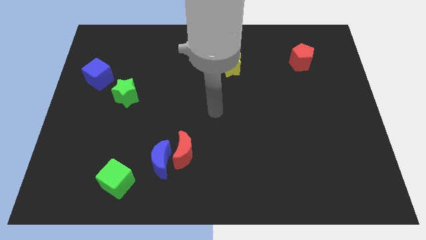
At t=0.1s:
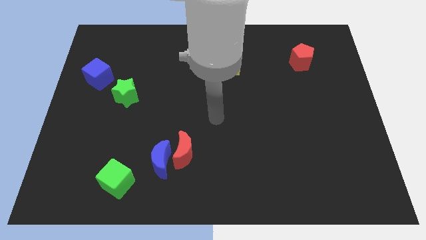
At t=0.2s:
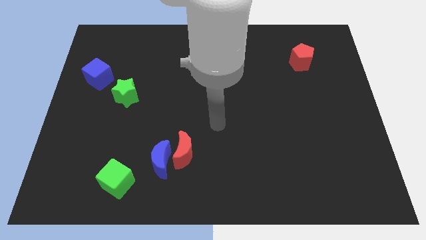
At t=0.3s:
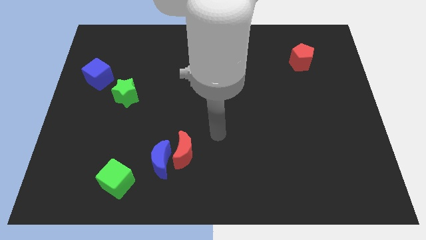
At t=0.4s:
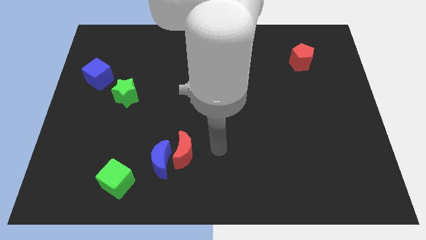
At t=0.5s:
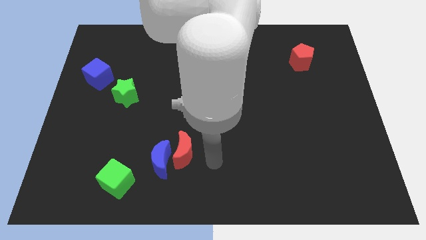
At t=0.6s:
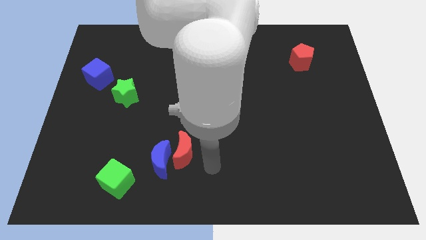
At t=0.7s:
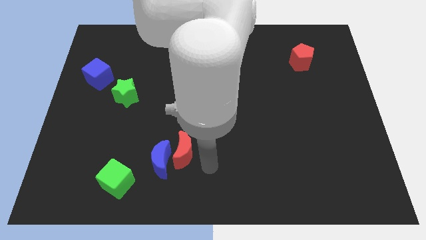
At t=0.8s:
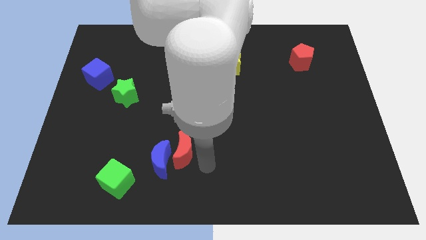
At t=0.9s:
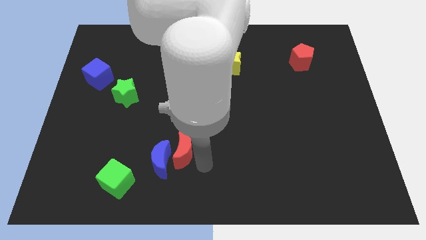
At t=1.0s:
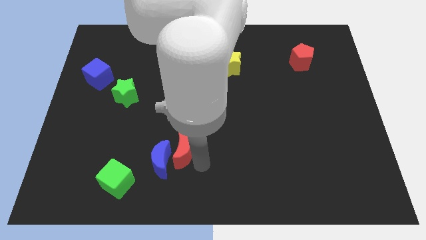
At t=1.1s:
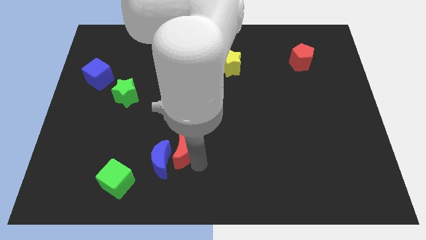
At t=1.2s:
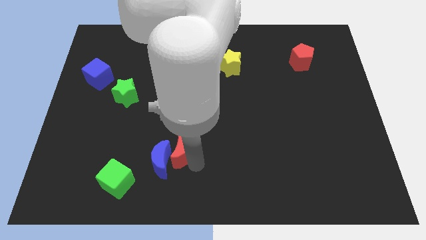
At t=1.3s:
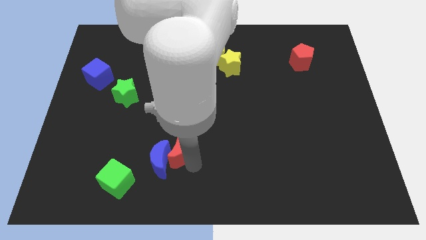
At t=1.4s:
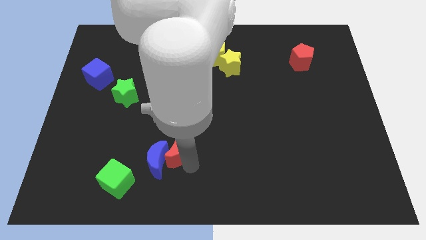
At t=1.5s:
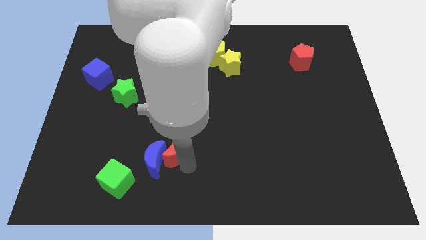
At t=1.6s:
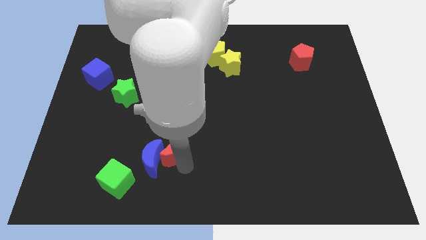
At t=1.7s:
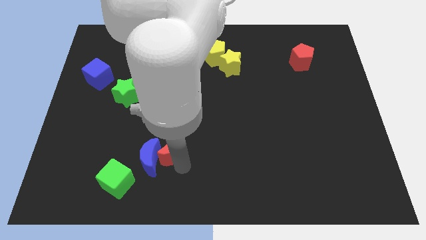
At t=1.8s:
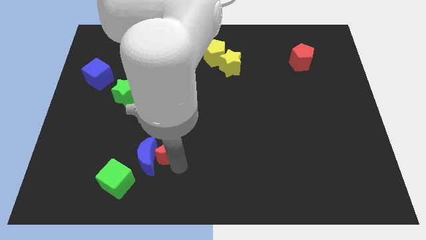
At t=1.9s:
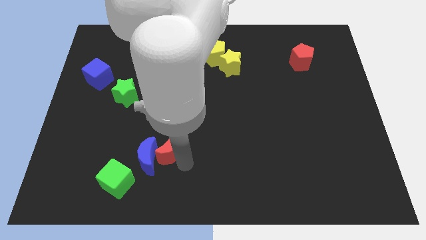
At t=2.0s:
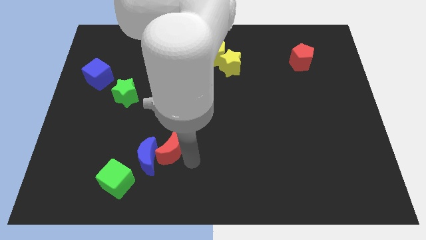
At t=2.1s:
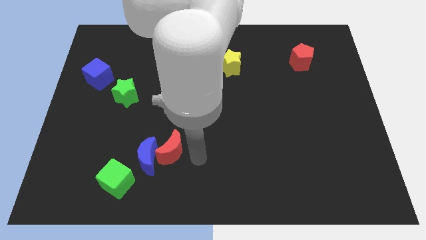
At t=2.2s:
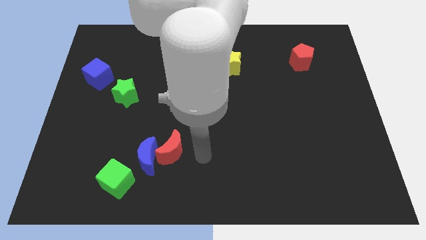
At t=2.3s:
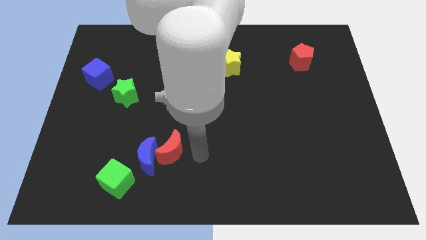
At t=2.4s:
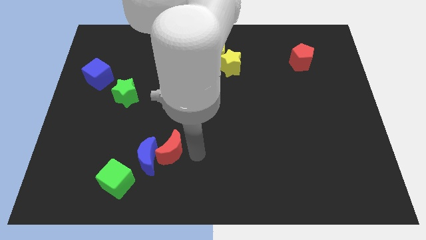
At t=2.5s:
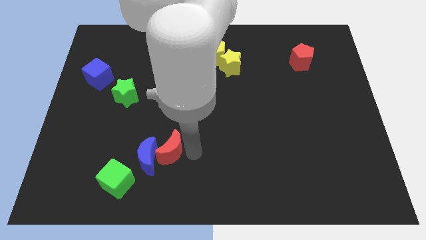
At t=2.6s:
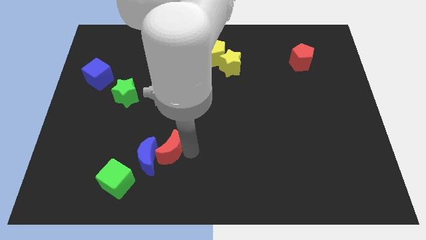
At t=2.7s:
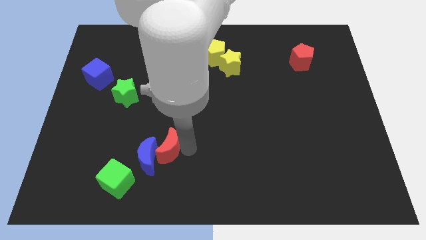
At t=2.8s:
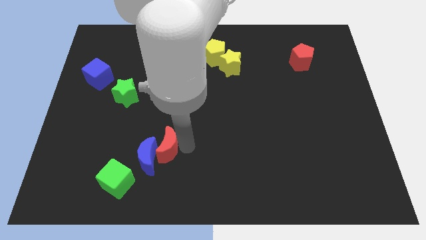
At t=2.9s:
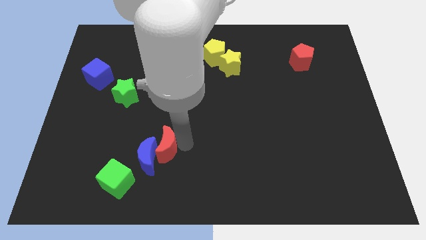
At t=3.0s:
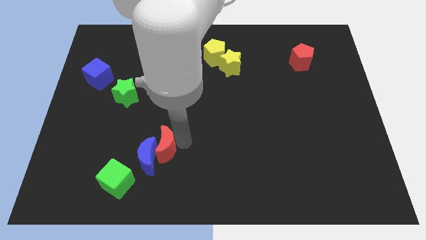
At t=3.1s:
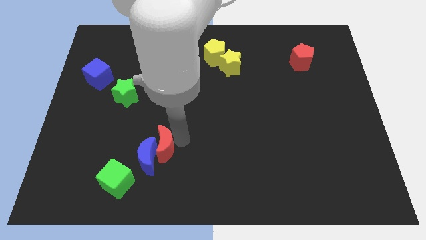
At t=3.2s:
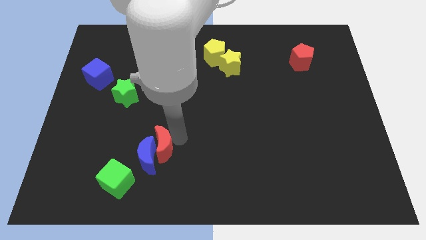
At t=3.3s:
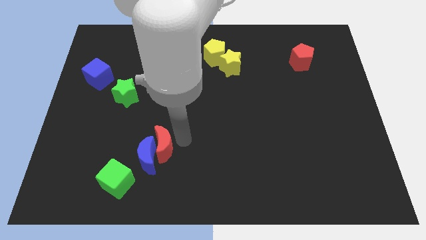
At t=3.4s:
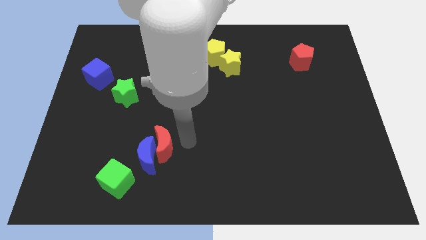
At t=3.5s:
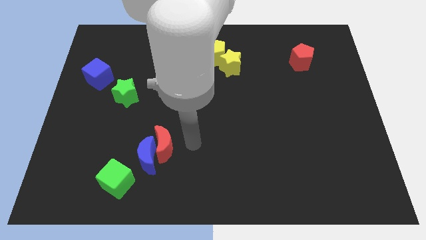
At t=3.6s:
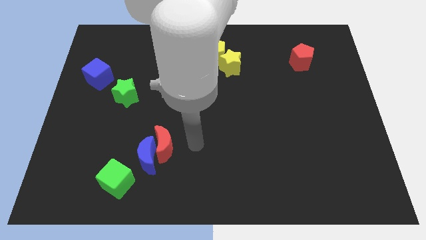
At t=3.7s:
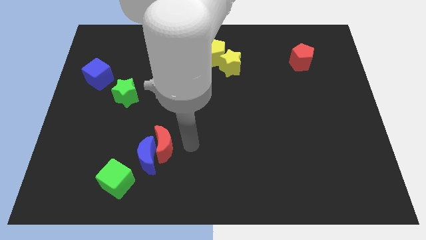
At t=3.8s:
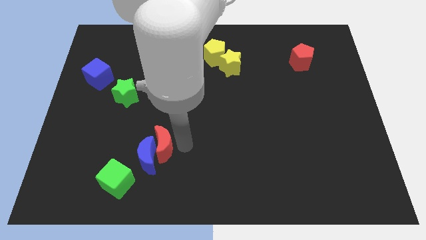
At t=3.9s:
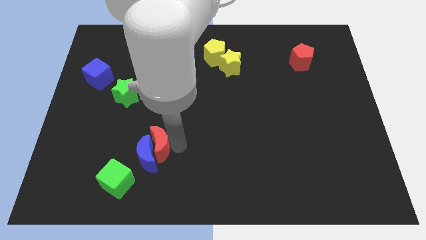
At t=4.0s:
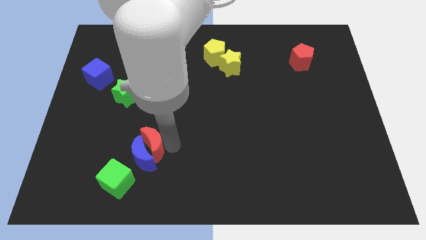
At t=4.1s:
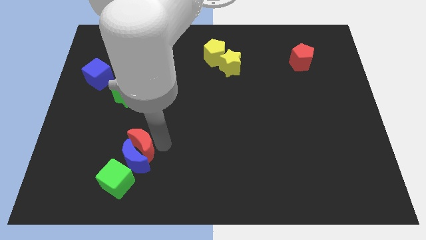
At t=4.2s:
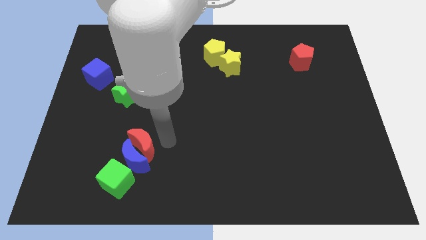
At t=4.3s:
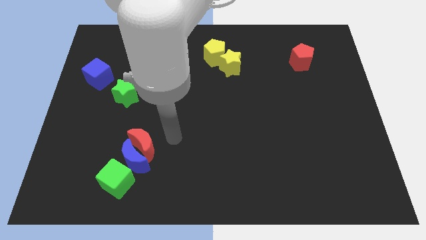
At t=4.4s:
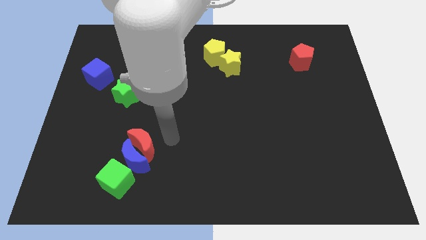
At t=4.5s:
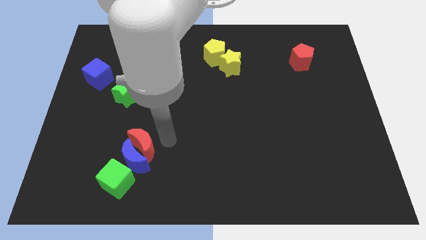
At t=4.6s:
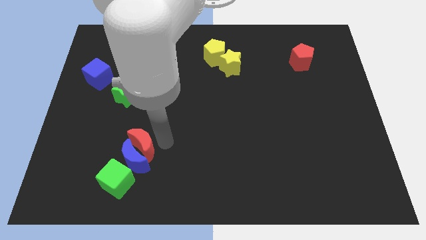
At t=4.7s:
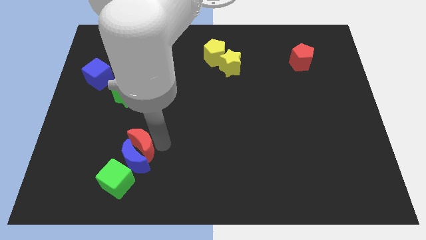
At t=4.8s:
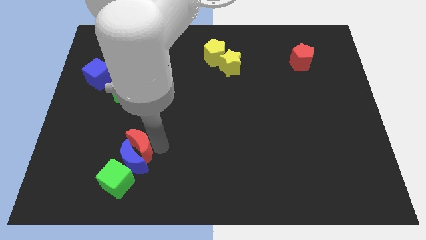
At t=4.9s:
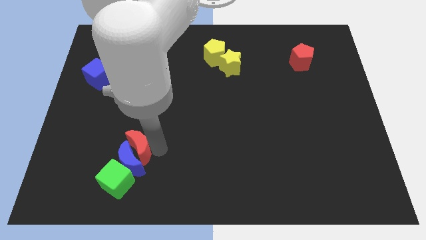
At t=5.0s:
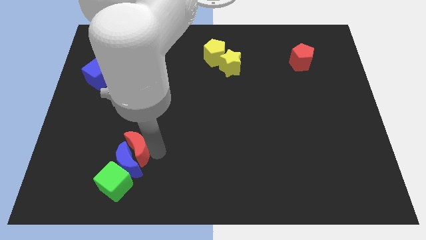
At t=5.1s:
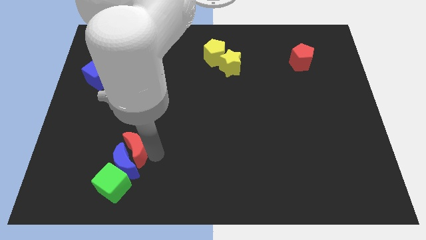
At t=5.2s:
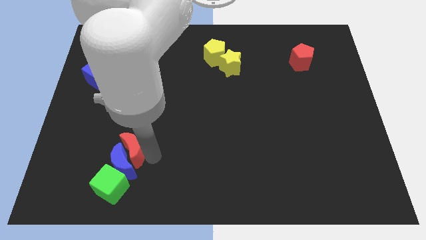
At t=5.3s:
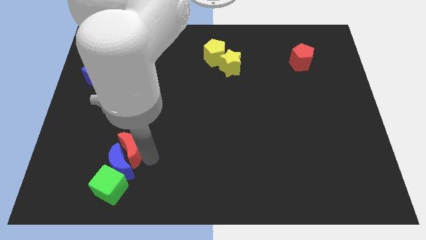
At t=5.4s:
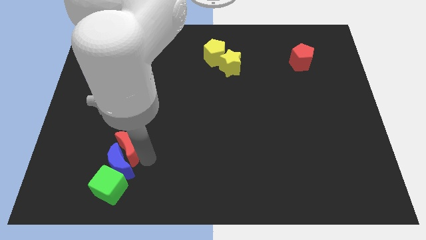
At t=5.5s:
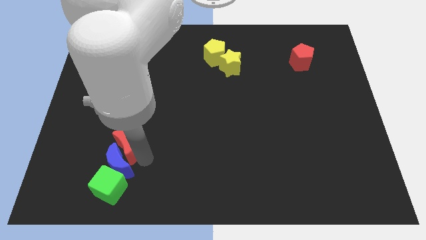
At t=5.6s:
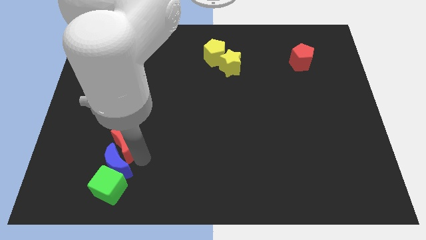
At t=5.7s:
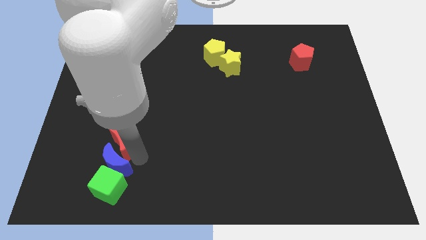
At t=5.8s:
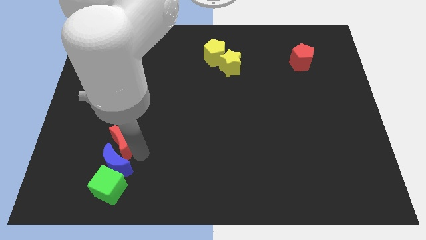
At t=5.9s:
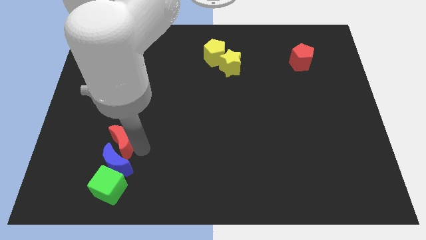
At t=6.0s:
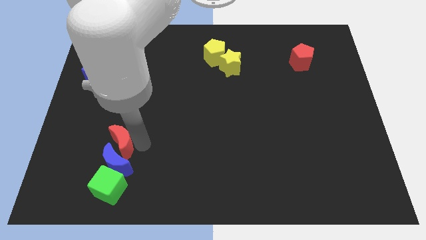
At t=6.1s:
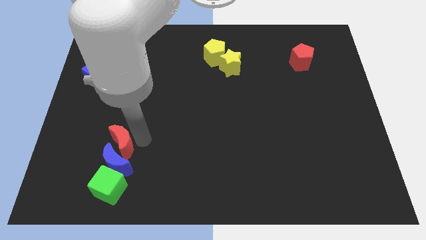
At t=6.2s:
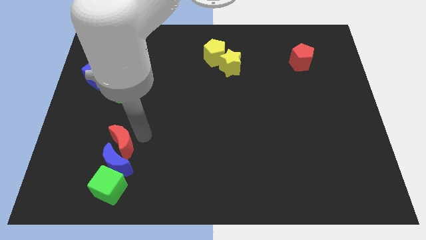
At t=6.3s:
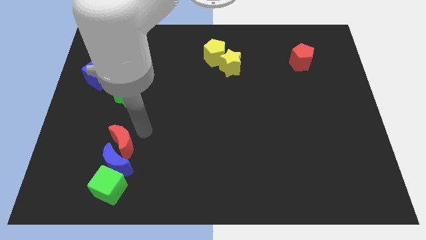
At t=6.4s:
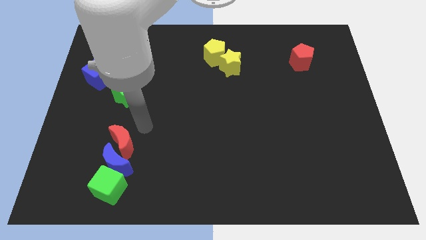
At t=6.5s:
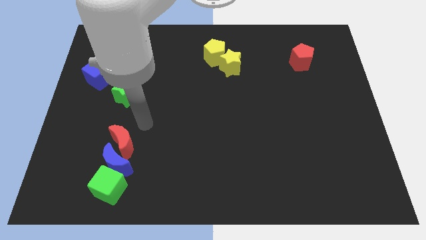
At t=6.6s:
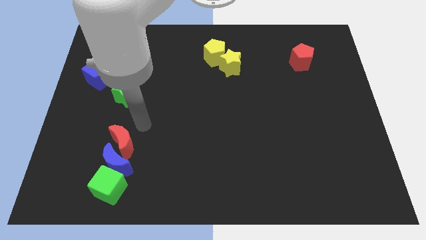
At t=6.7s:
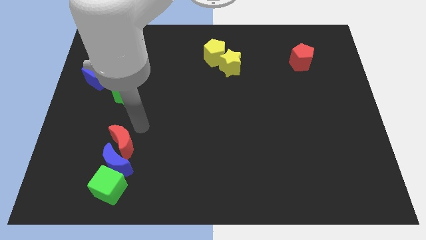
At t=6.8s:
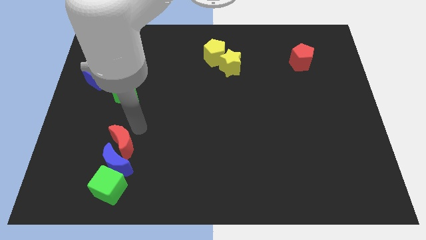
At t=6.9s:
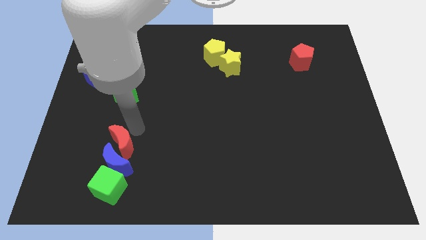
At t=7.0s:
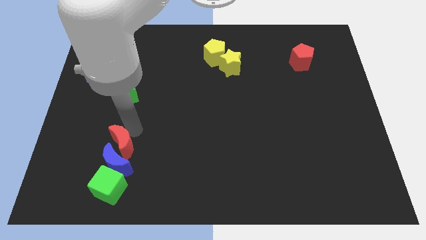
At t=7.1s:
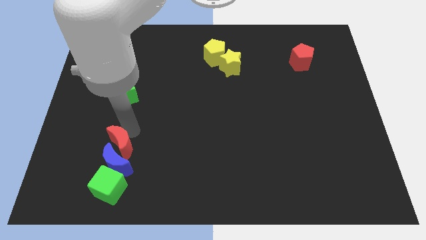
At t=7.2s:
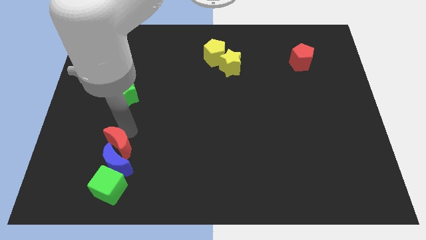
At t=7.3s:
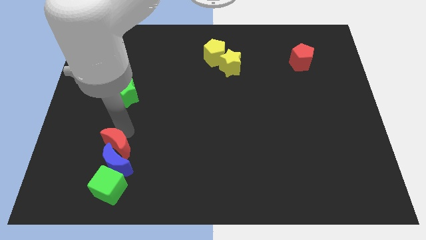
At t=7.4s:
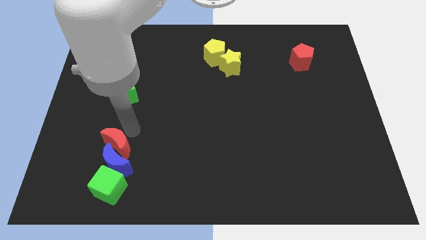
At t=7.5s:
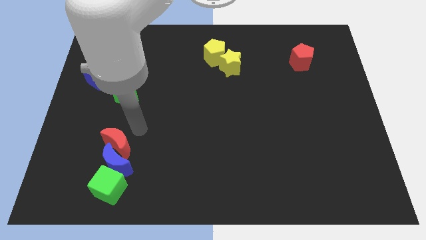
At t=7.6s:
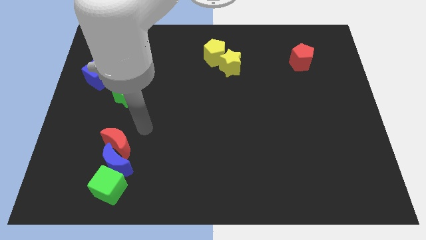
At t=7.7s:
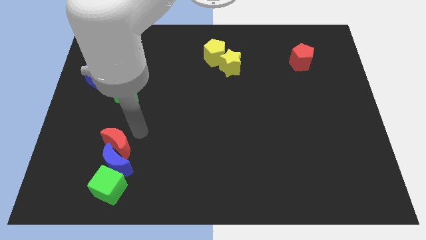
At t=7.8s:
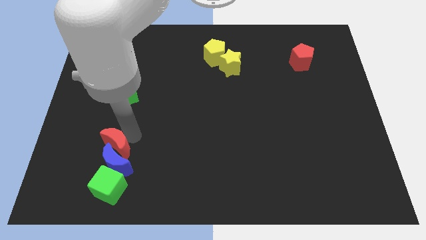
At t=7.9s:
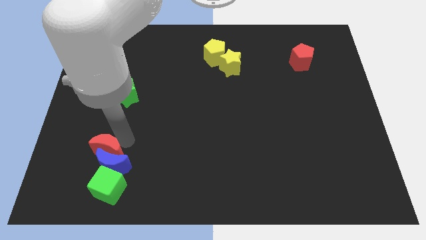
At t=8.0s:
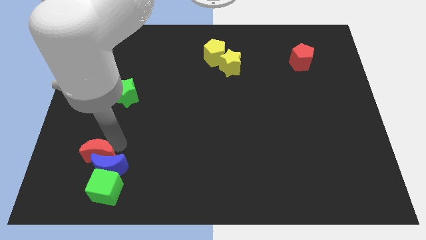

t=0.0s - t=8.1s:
slide the red moon to the top left side of the green cube
